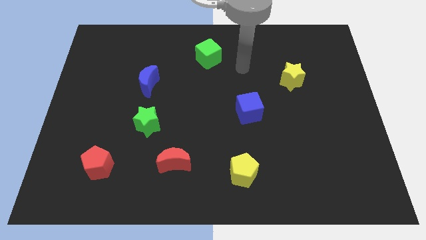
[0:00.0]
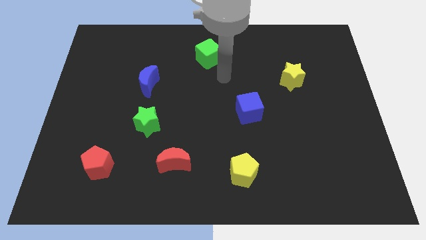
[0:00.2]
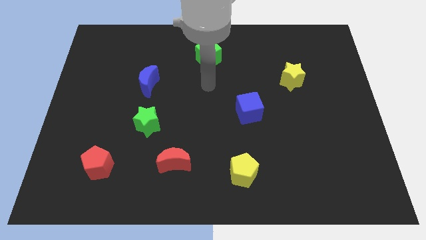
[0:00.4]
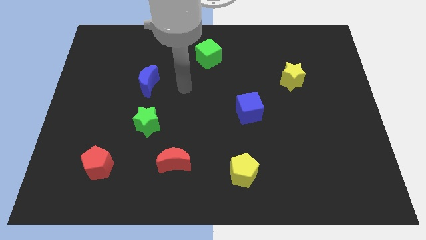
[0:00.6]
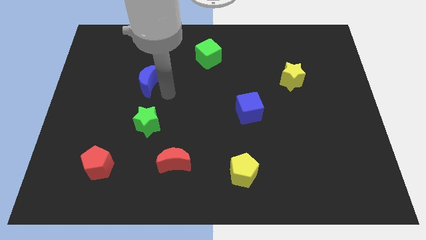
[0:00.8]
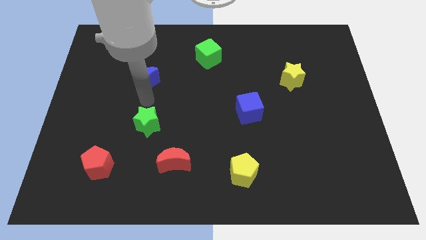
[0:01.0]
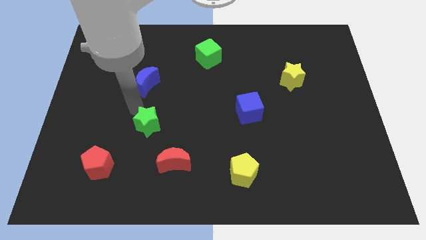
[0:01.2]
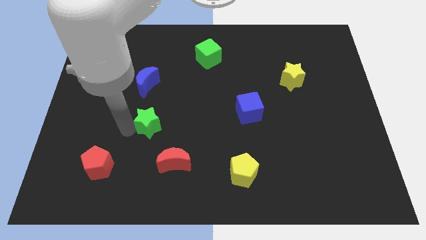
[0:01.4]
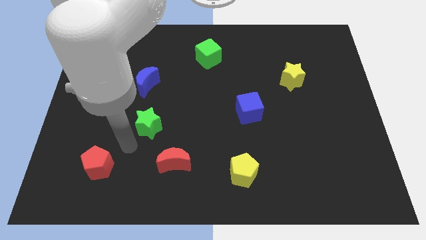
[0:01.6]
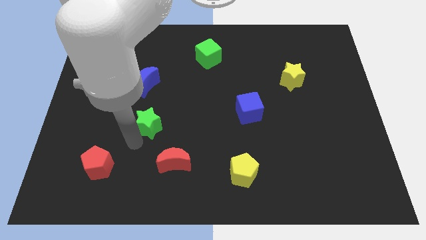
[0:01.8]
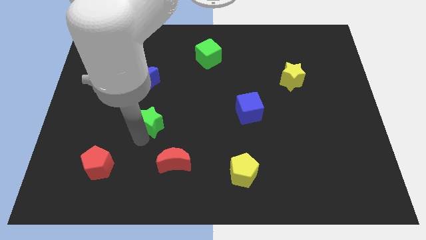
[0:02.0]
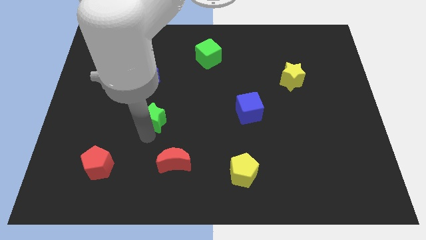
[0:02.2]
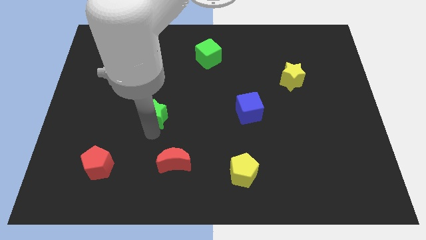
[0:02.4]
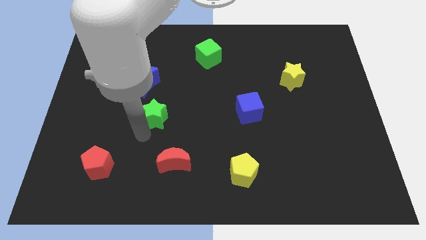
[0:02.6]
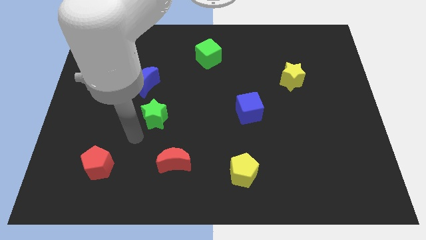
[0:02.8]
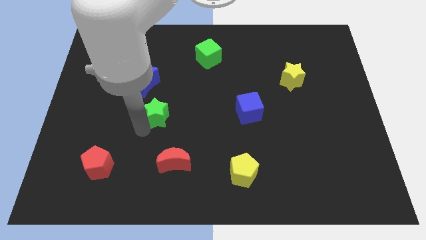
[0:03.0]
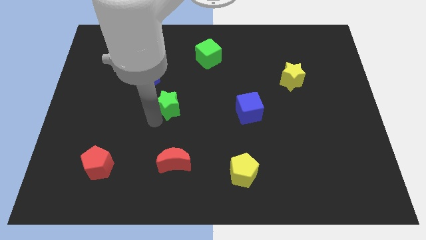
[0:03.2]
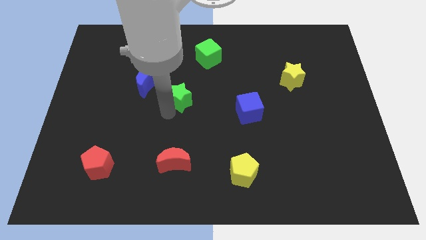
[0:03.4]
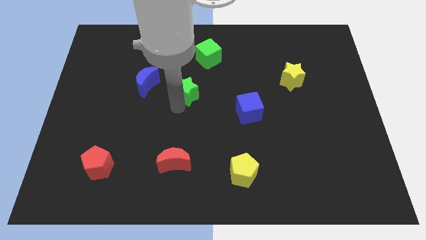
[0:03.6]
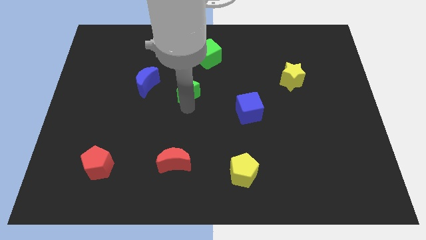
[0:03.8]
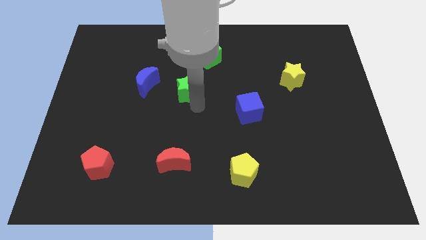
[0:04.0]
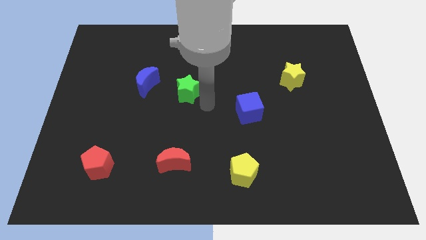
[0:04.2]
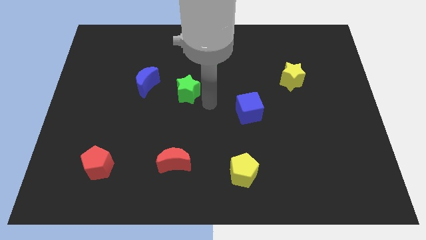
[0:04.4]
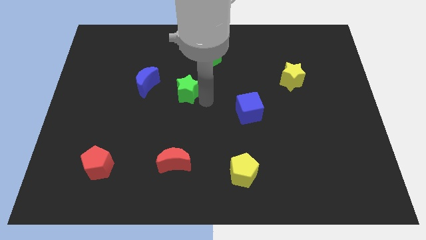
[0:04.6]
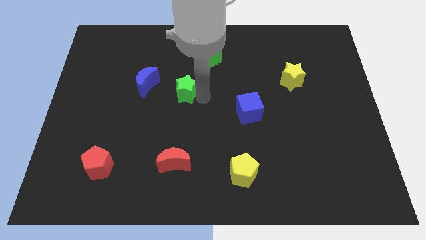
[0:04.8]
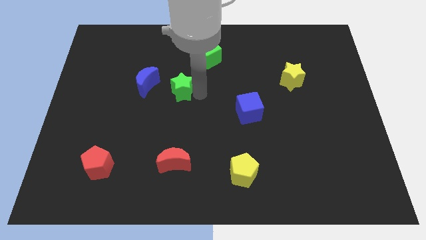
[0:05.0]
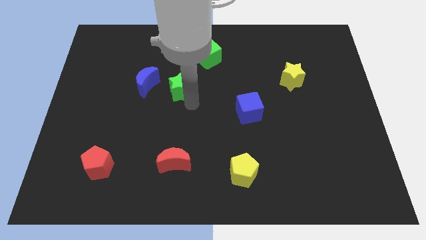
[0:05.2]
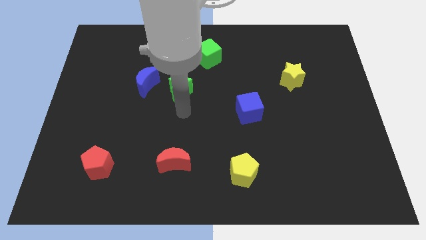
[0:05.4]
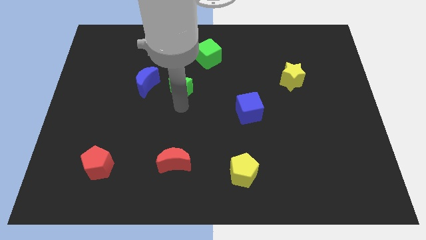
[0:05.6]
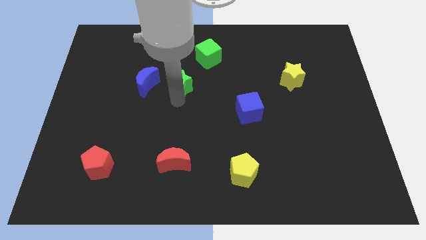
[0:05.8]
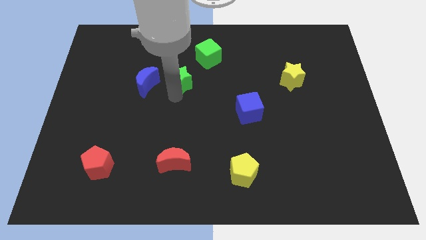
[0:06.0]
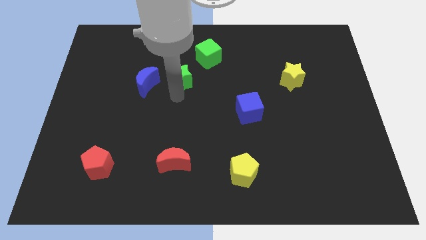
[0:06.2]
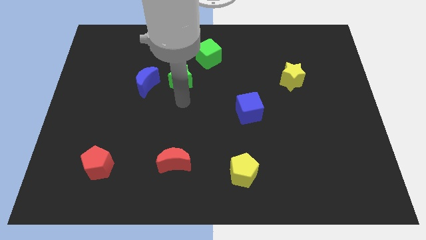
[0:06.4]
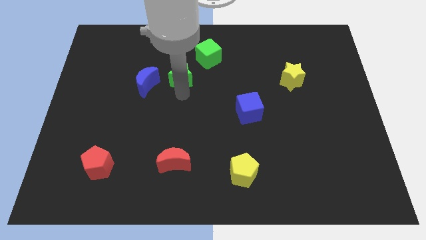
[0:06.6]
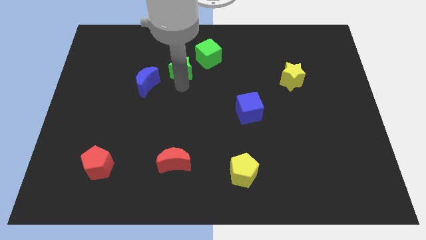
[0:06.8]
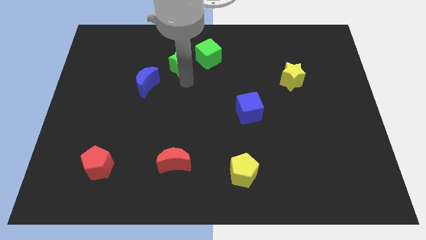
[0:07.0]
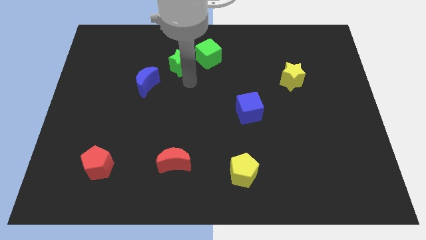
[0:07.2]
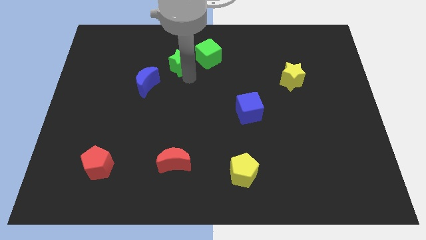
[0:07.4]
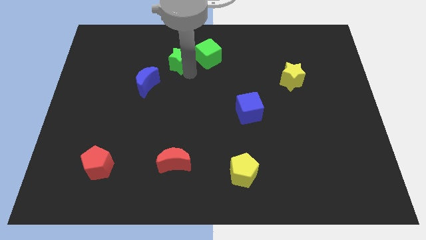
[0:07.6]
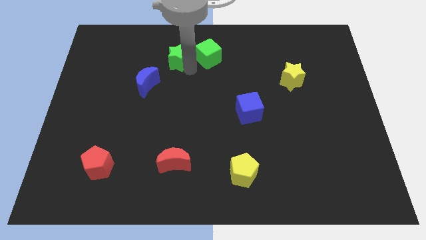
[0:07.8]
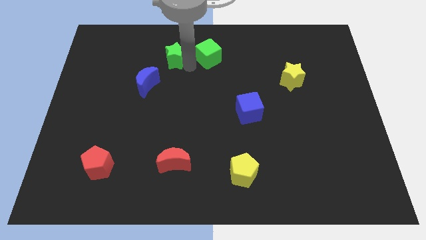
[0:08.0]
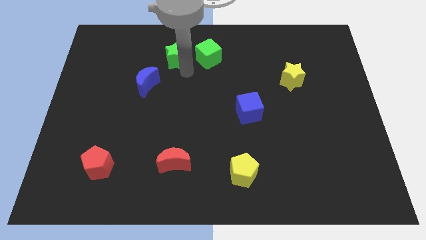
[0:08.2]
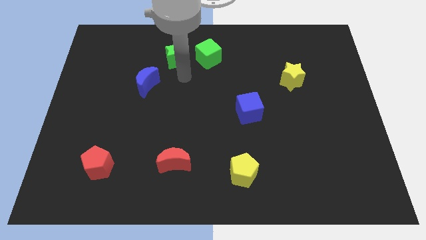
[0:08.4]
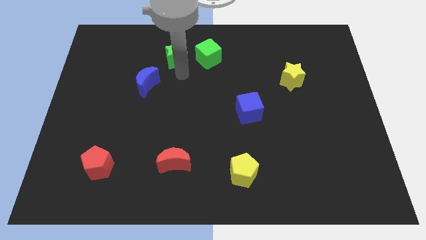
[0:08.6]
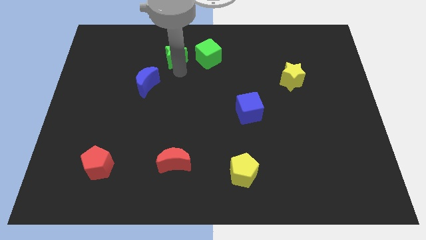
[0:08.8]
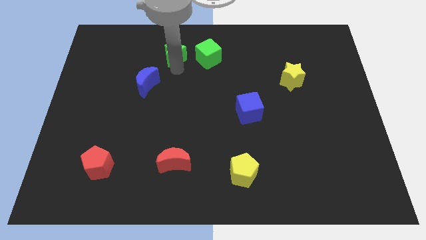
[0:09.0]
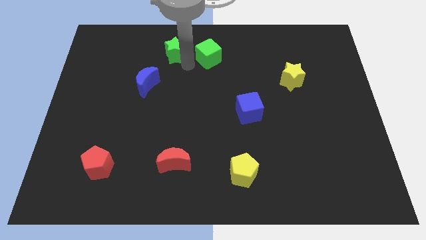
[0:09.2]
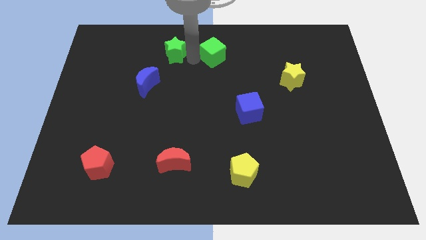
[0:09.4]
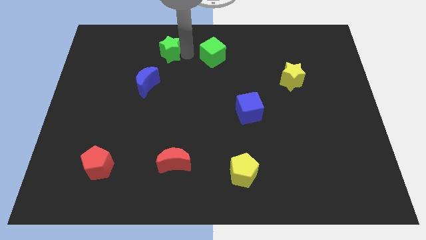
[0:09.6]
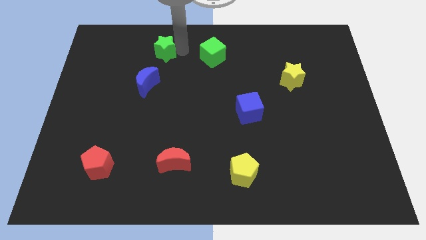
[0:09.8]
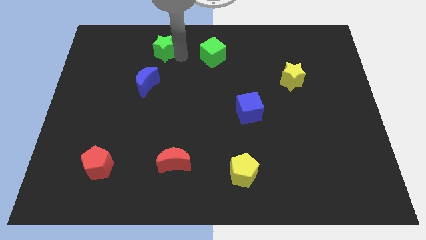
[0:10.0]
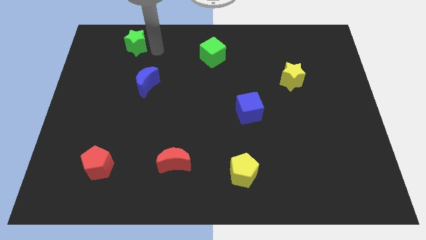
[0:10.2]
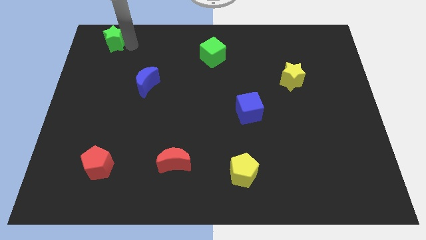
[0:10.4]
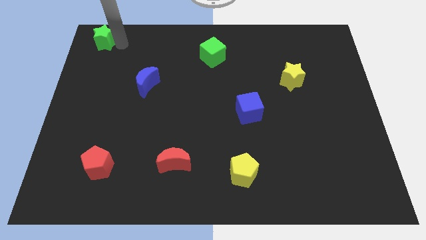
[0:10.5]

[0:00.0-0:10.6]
move the green star to the top left corner

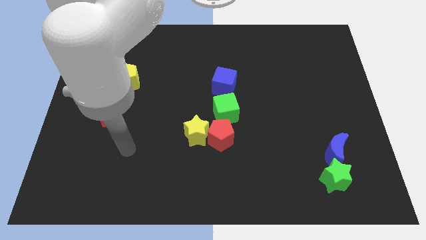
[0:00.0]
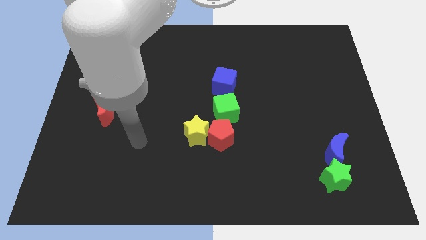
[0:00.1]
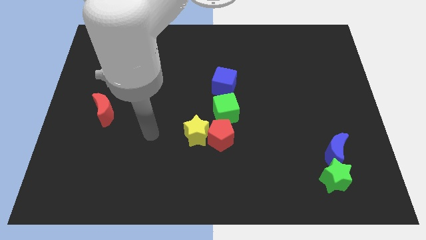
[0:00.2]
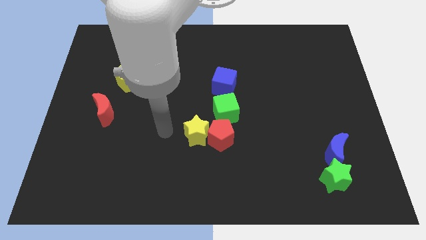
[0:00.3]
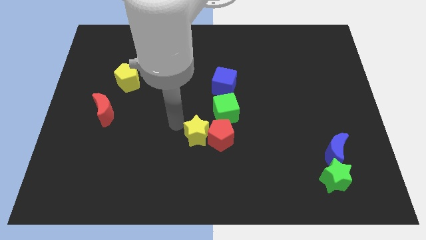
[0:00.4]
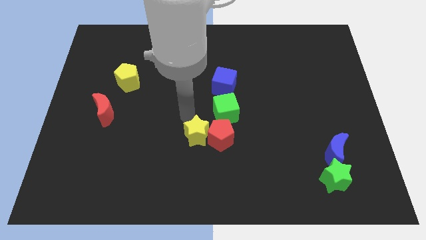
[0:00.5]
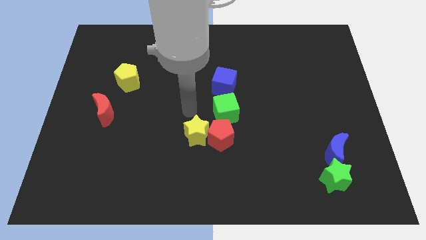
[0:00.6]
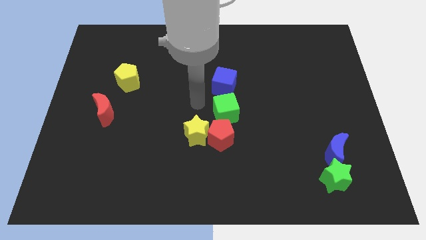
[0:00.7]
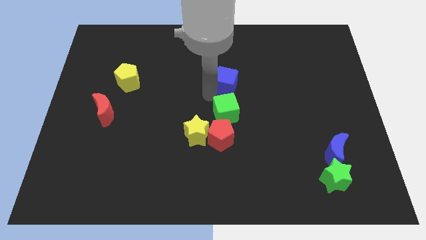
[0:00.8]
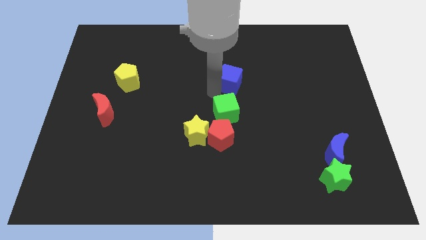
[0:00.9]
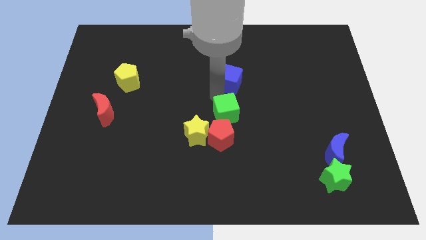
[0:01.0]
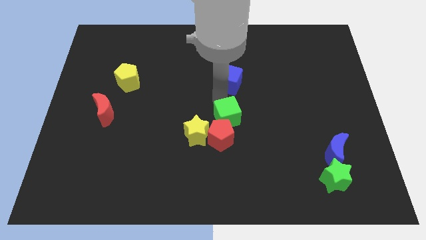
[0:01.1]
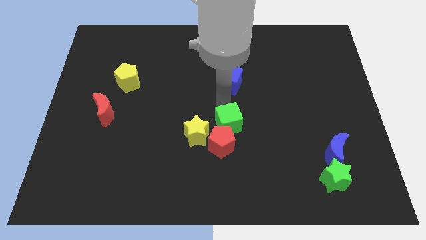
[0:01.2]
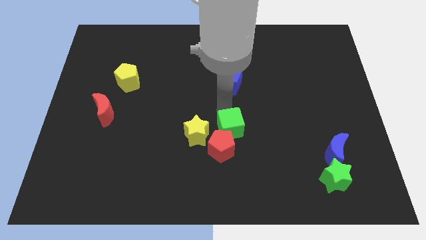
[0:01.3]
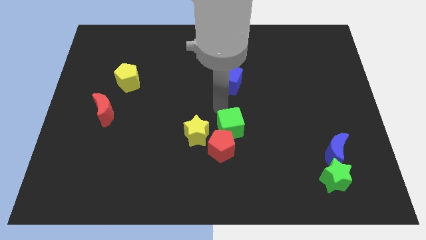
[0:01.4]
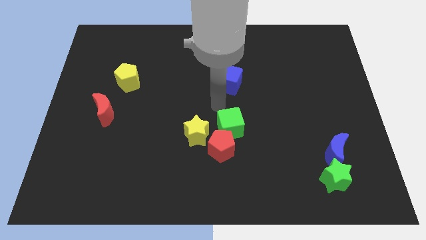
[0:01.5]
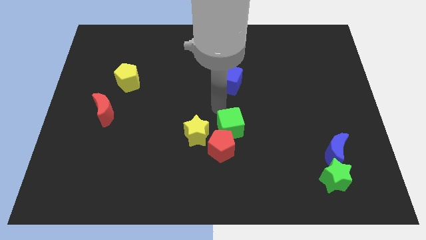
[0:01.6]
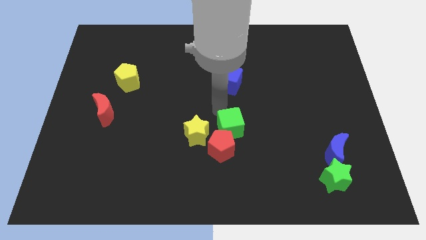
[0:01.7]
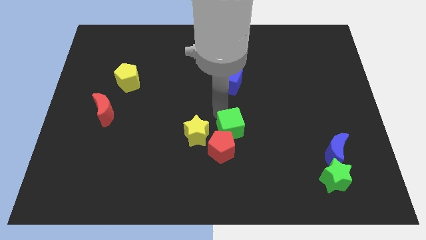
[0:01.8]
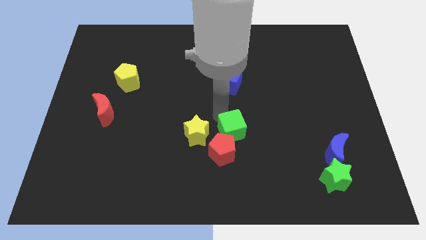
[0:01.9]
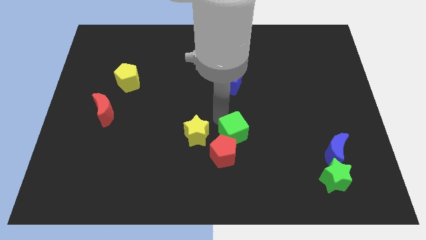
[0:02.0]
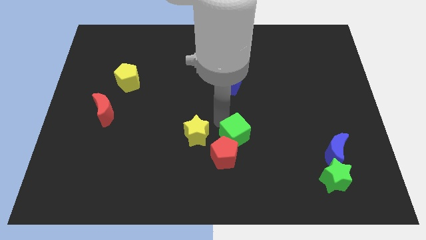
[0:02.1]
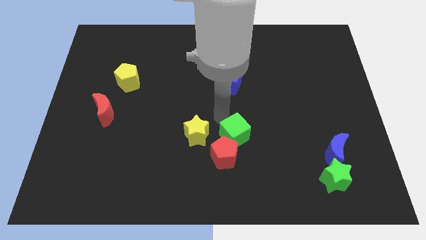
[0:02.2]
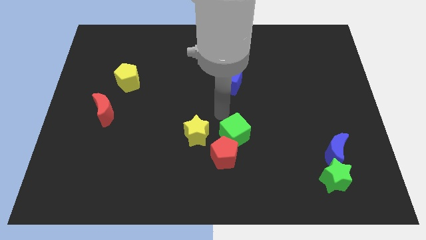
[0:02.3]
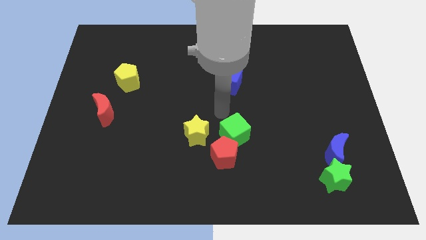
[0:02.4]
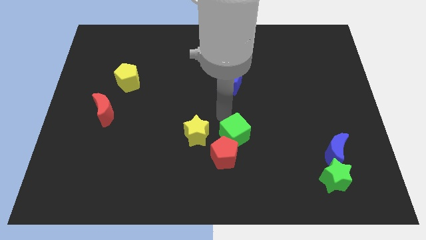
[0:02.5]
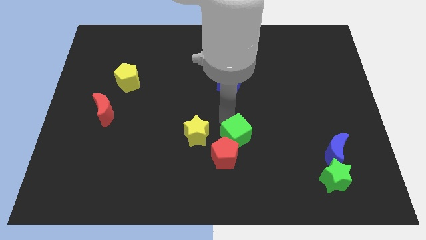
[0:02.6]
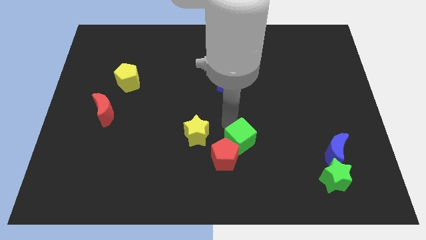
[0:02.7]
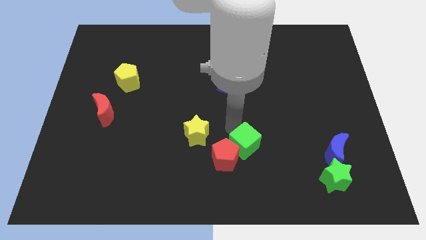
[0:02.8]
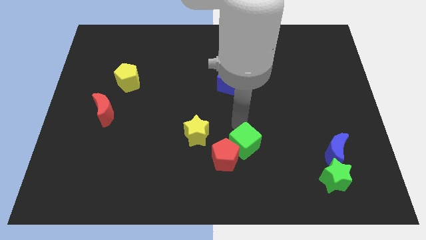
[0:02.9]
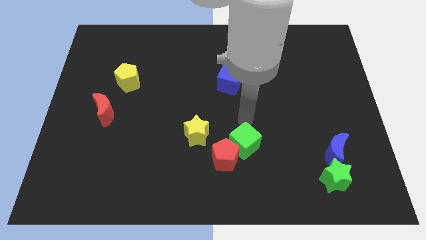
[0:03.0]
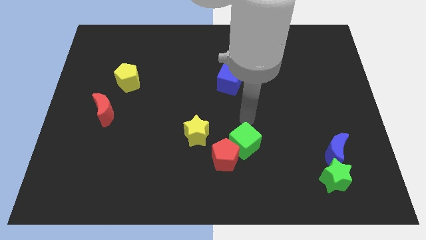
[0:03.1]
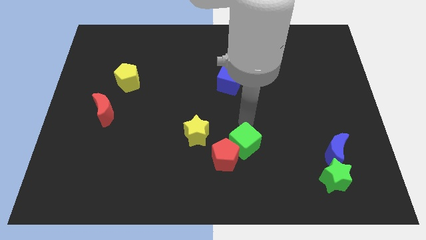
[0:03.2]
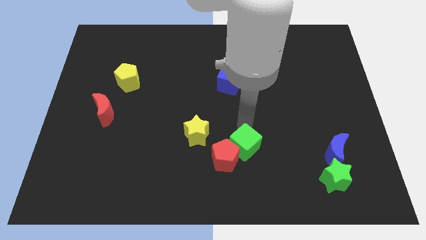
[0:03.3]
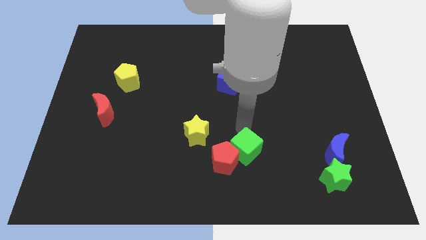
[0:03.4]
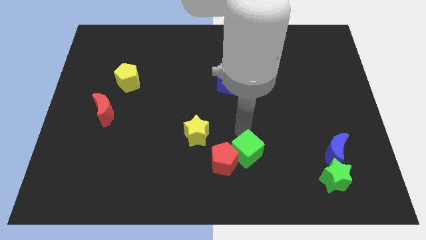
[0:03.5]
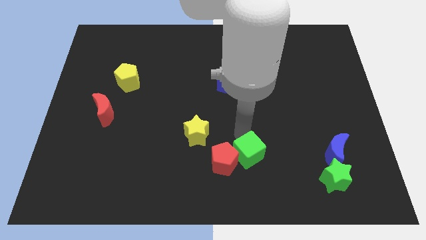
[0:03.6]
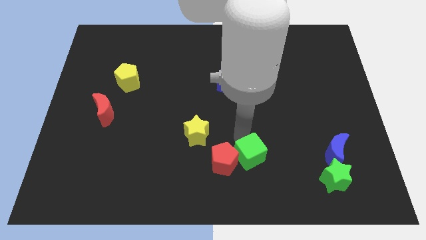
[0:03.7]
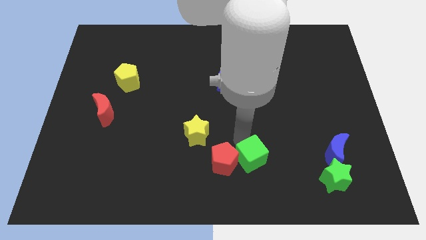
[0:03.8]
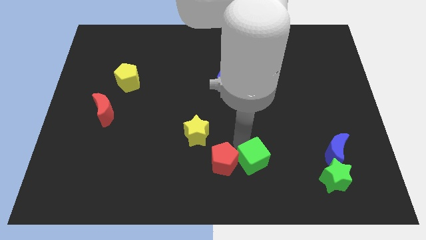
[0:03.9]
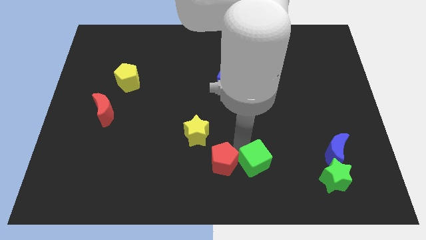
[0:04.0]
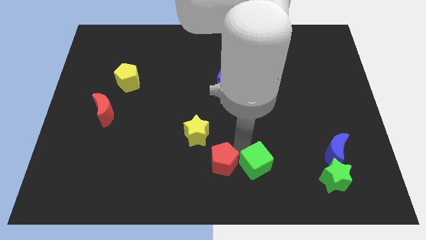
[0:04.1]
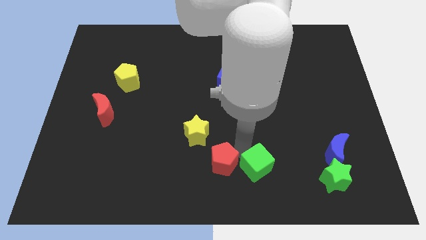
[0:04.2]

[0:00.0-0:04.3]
slide the green cube to the bottom side
